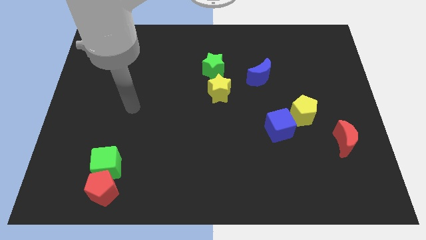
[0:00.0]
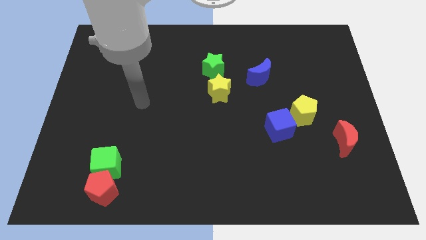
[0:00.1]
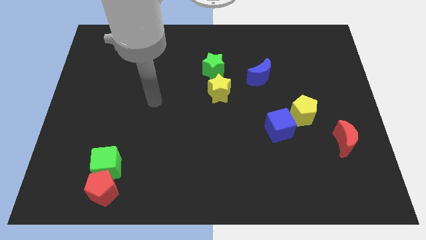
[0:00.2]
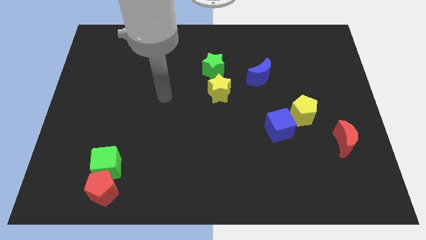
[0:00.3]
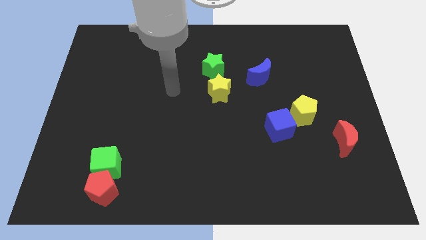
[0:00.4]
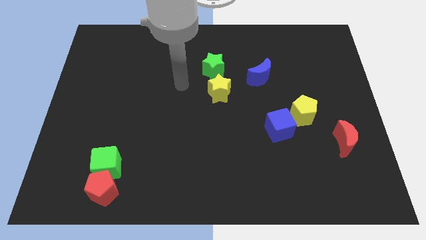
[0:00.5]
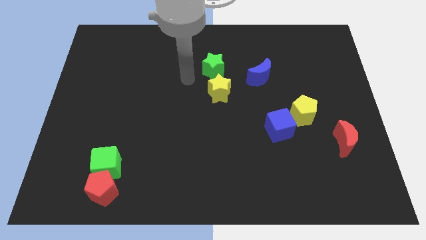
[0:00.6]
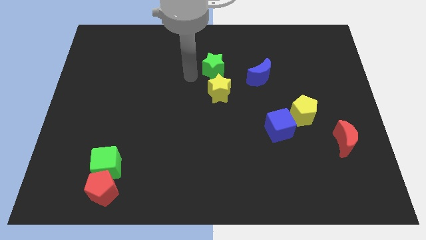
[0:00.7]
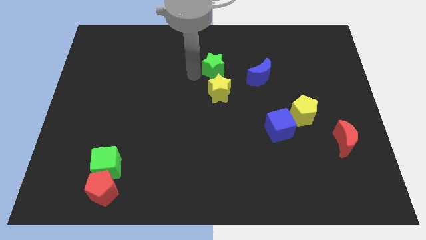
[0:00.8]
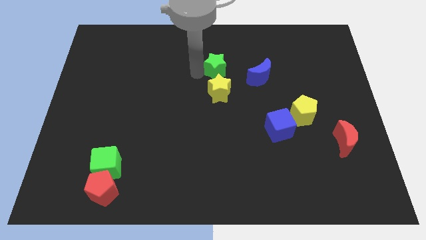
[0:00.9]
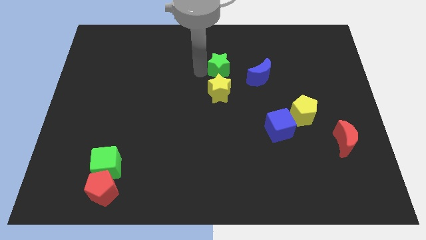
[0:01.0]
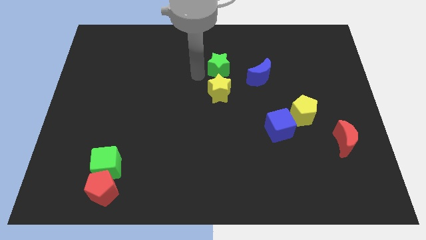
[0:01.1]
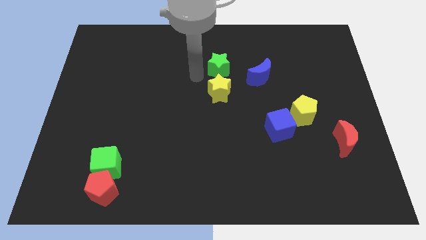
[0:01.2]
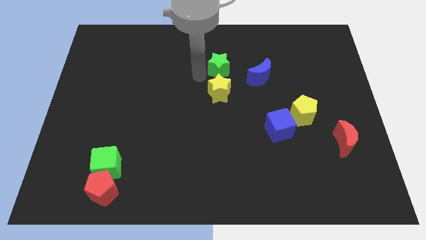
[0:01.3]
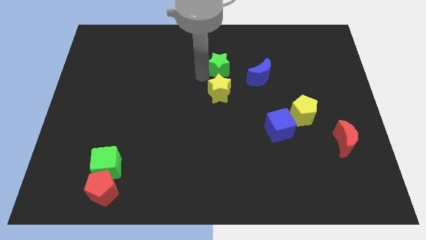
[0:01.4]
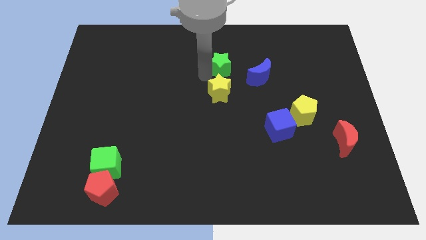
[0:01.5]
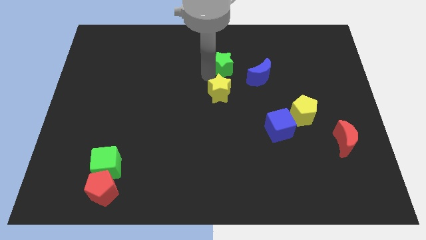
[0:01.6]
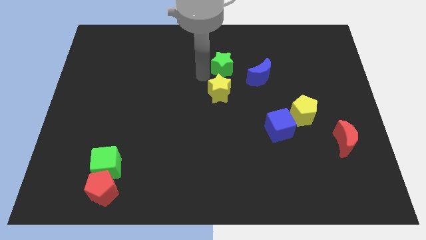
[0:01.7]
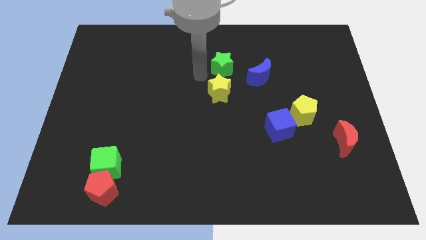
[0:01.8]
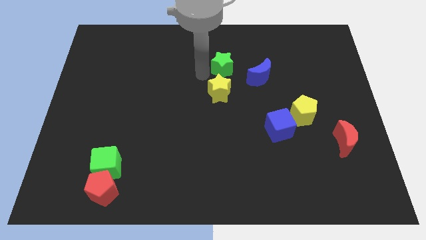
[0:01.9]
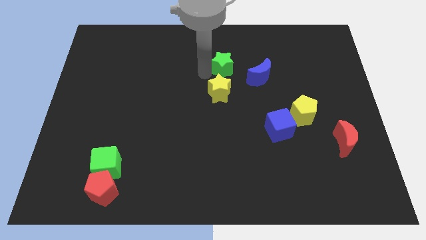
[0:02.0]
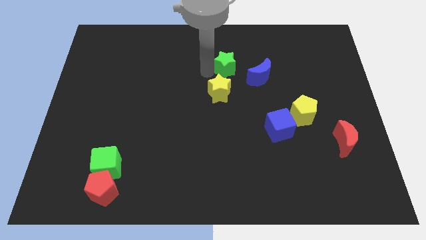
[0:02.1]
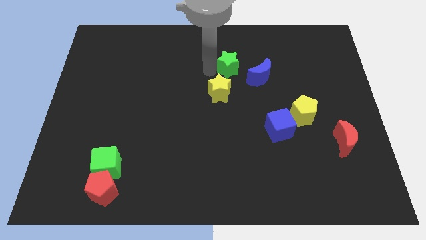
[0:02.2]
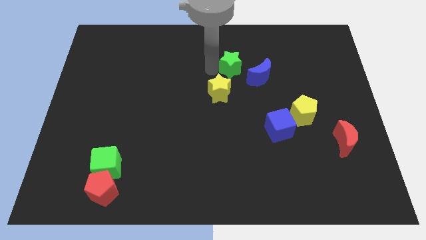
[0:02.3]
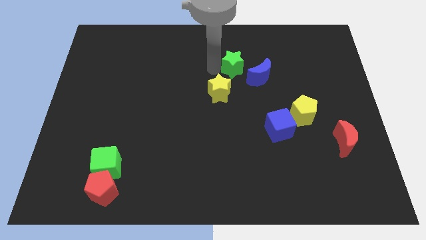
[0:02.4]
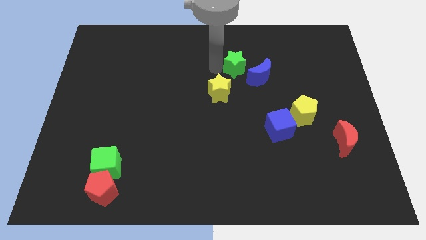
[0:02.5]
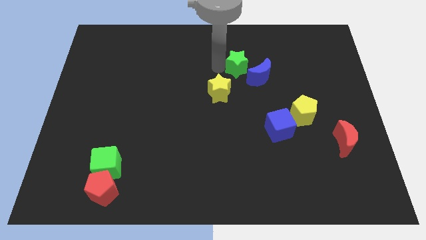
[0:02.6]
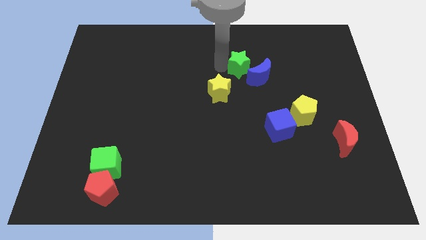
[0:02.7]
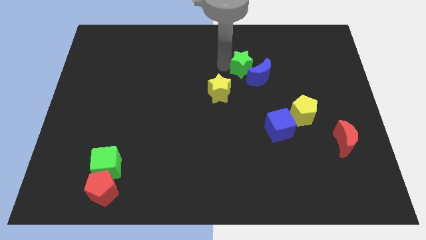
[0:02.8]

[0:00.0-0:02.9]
move the green star right slightly

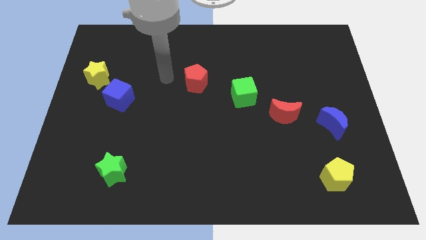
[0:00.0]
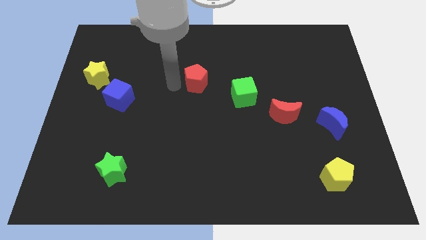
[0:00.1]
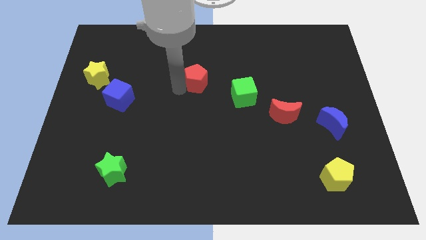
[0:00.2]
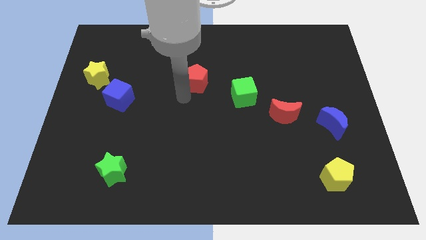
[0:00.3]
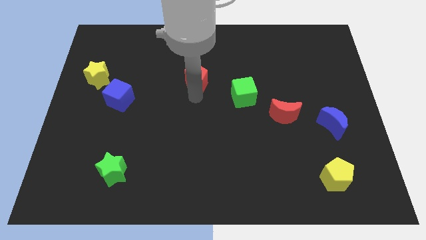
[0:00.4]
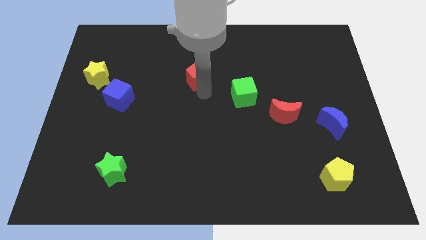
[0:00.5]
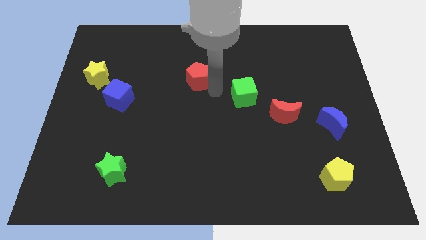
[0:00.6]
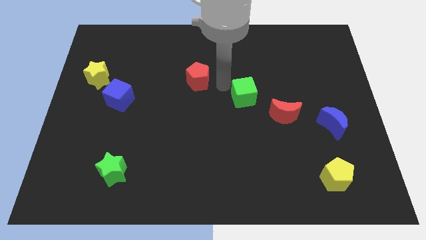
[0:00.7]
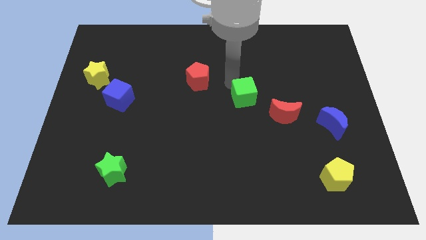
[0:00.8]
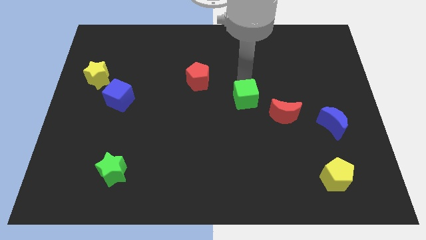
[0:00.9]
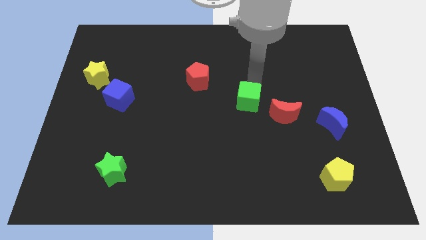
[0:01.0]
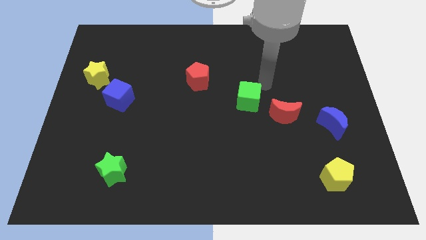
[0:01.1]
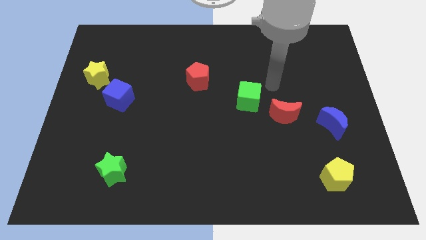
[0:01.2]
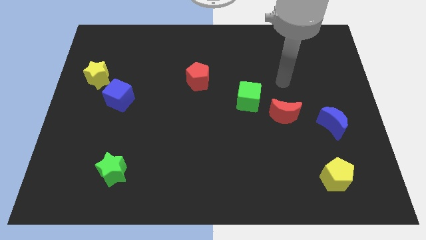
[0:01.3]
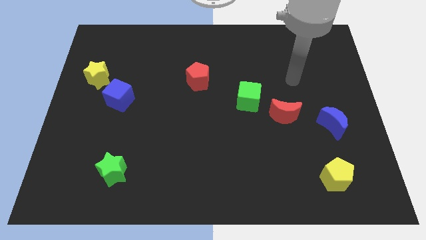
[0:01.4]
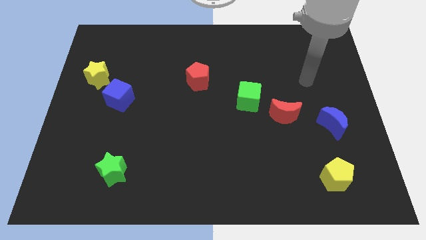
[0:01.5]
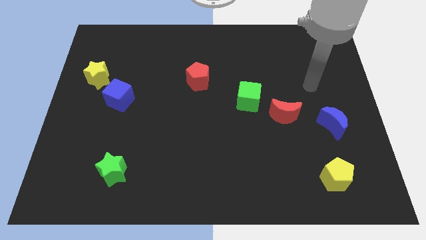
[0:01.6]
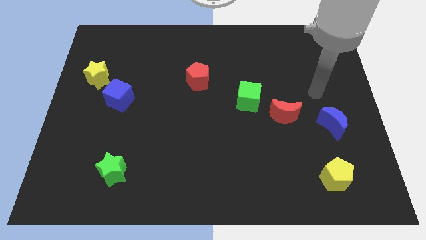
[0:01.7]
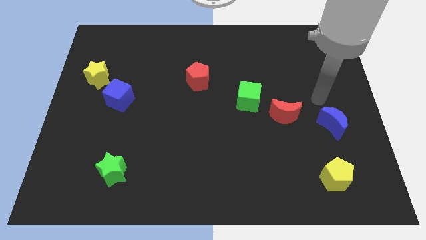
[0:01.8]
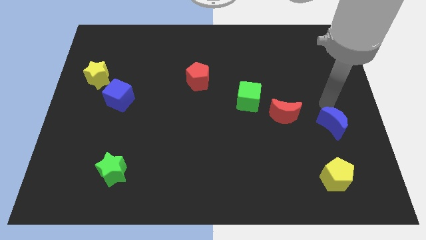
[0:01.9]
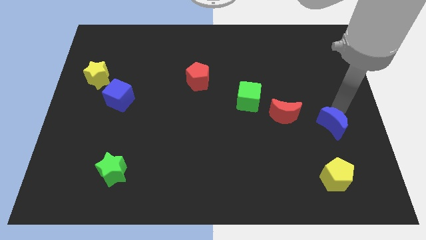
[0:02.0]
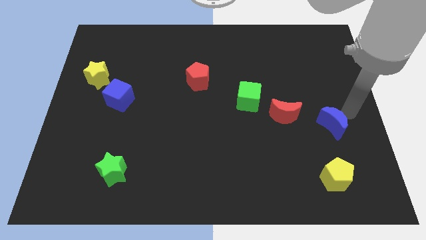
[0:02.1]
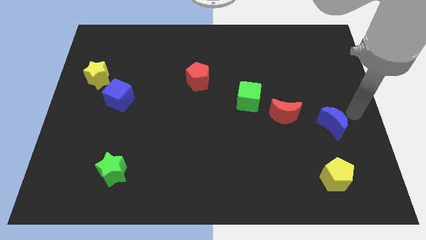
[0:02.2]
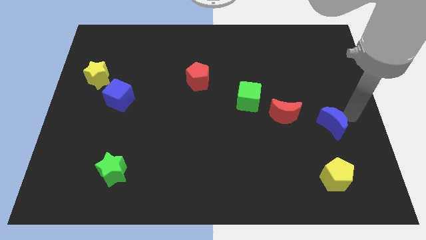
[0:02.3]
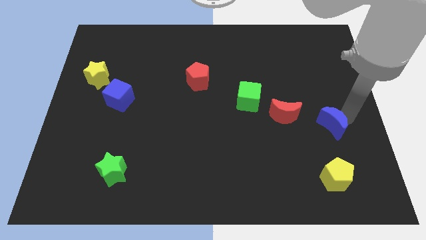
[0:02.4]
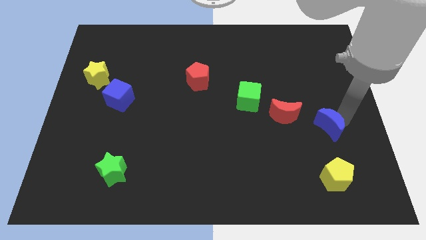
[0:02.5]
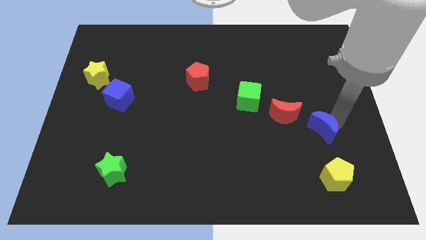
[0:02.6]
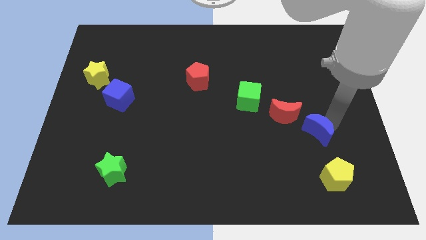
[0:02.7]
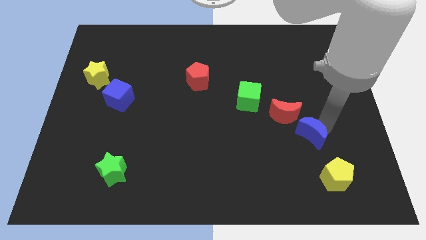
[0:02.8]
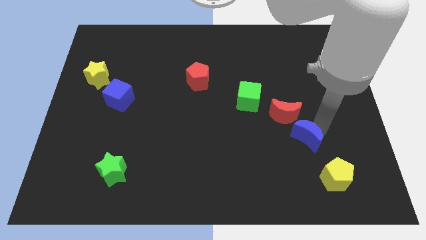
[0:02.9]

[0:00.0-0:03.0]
move the blue moon a little downwards and to the left

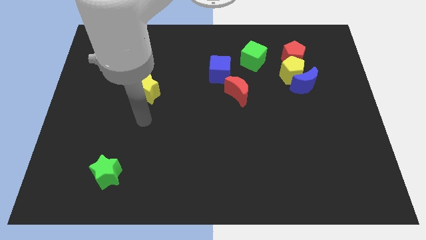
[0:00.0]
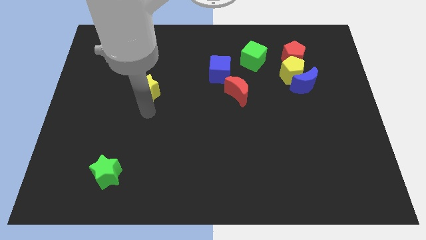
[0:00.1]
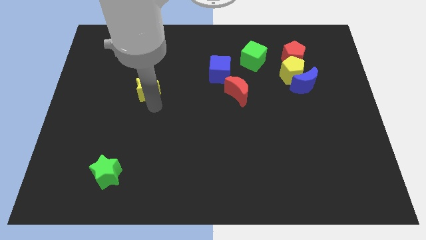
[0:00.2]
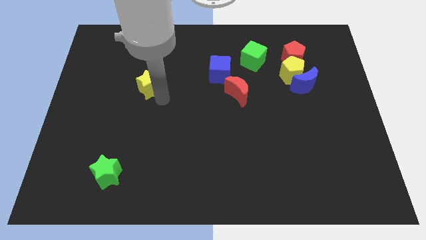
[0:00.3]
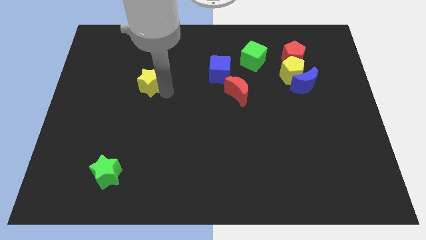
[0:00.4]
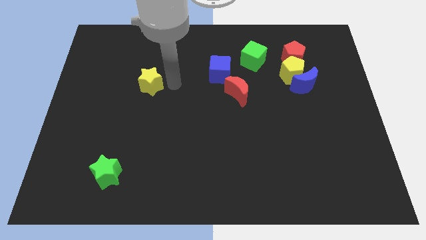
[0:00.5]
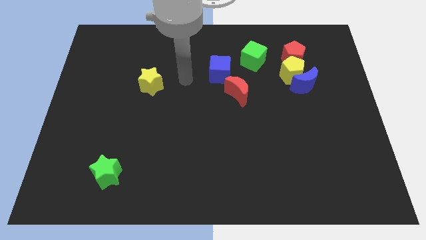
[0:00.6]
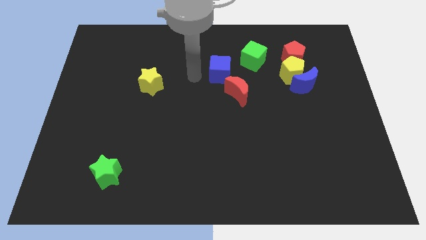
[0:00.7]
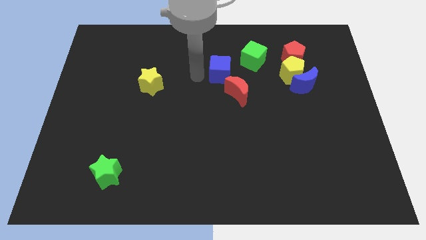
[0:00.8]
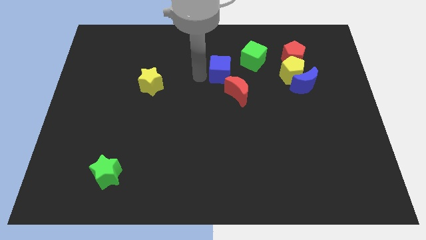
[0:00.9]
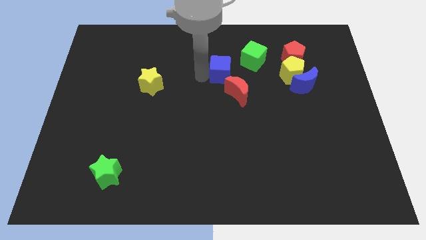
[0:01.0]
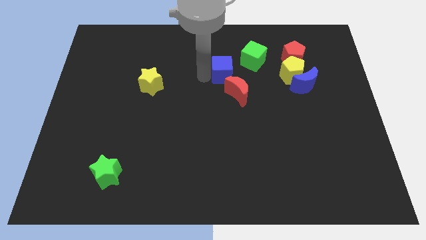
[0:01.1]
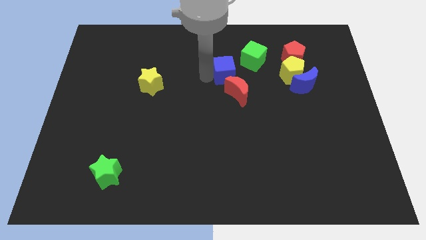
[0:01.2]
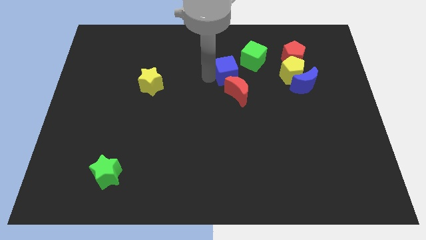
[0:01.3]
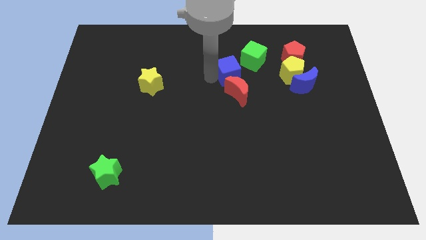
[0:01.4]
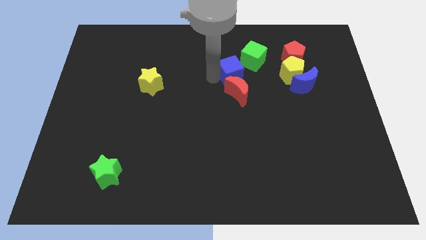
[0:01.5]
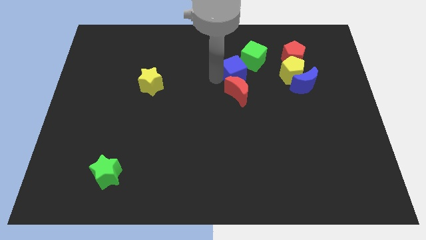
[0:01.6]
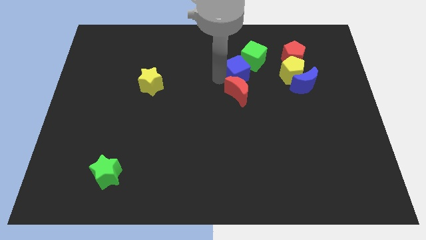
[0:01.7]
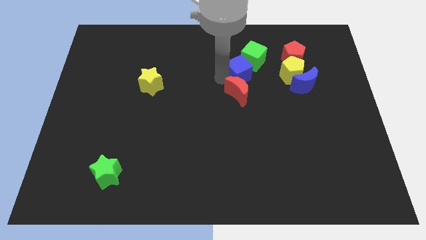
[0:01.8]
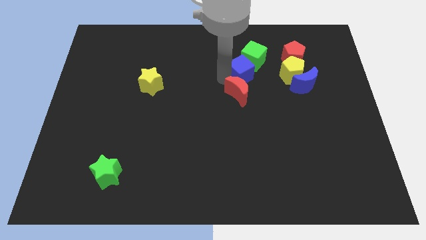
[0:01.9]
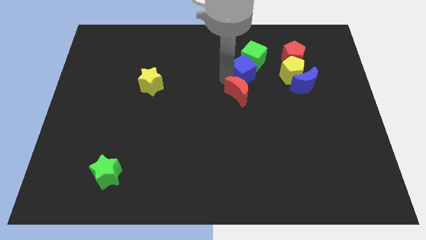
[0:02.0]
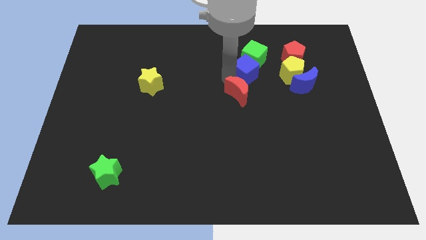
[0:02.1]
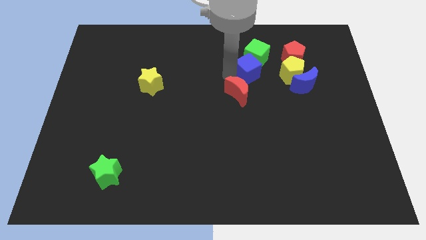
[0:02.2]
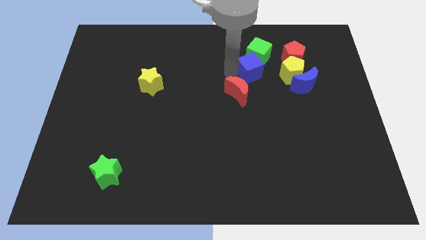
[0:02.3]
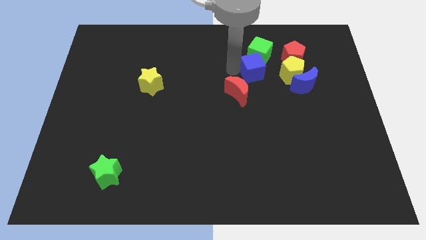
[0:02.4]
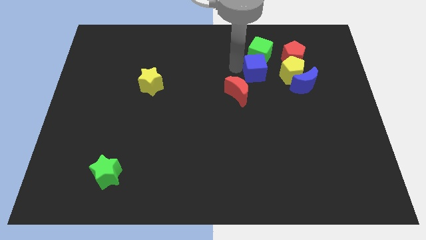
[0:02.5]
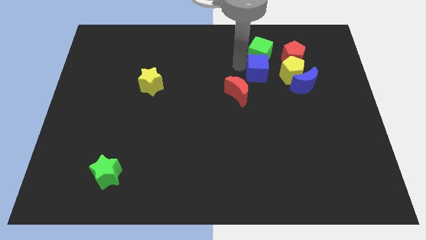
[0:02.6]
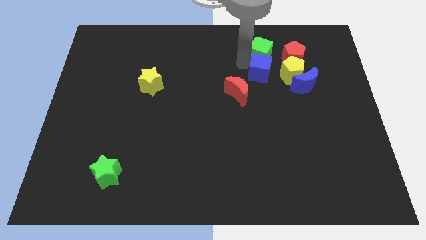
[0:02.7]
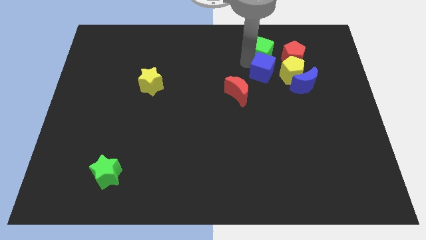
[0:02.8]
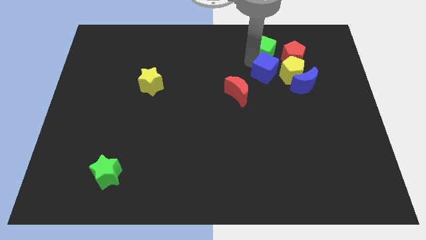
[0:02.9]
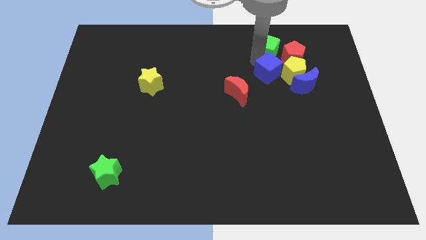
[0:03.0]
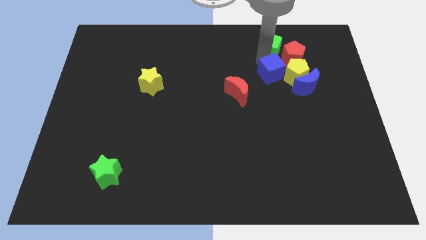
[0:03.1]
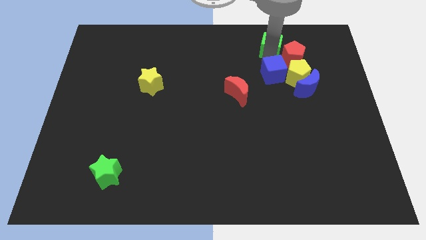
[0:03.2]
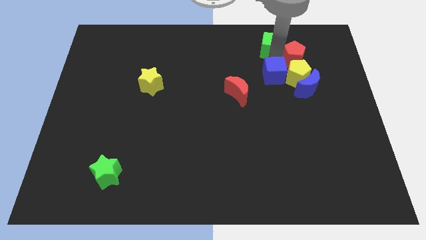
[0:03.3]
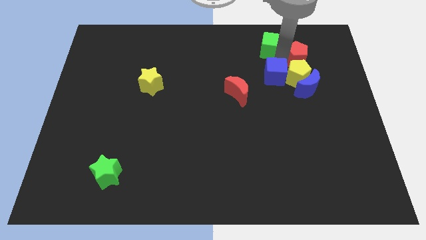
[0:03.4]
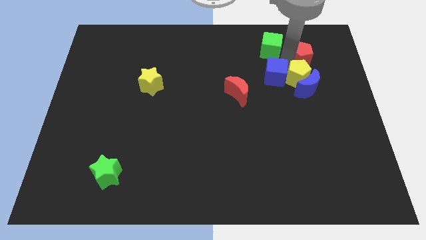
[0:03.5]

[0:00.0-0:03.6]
slightly push the blue cube down and right
